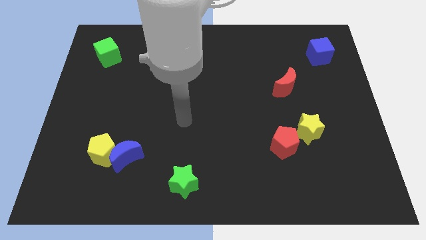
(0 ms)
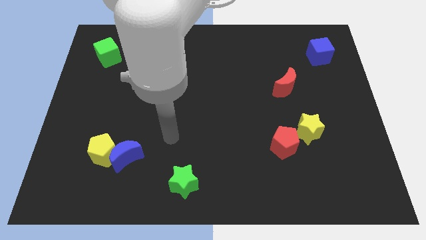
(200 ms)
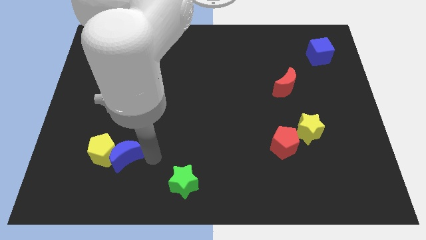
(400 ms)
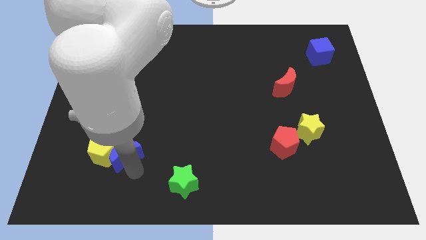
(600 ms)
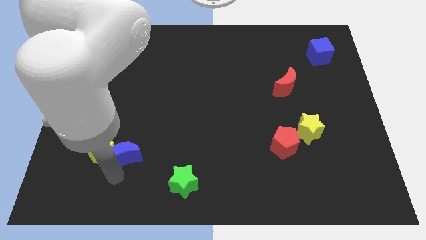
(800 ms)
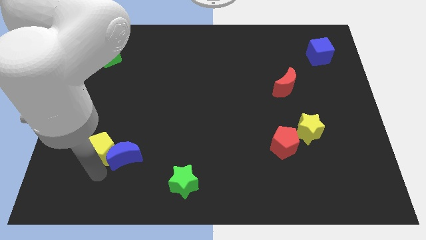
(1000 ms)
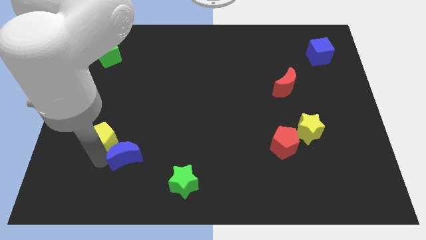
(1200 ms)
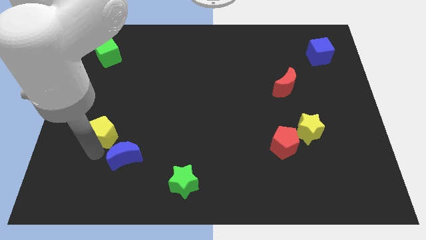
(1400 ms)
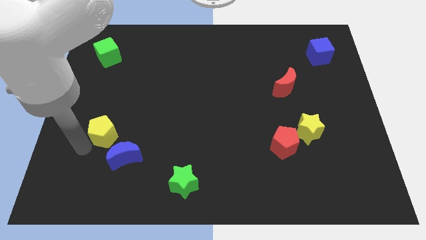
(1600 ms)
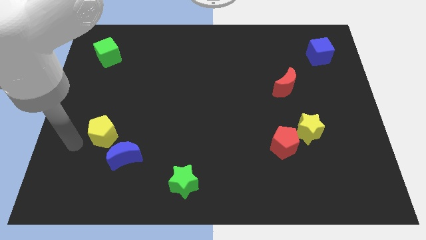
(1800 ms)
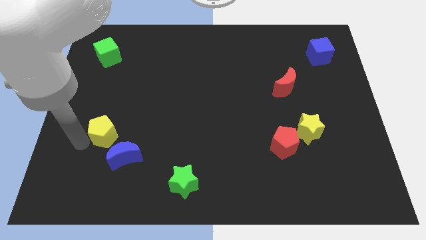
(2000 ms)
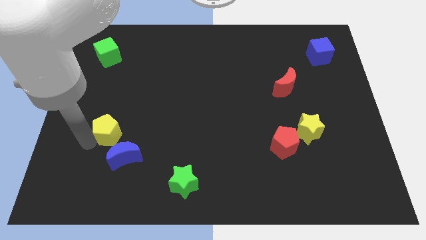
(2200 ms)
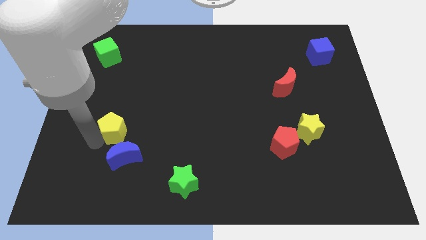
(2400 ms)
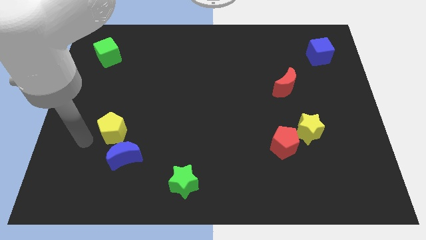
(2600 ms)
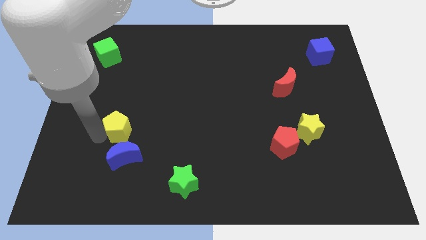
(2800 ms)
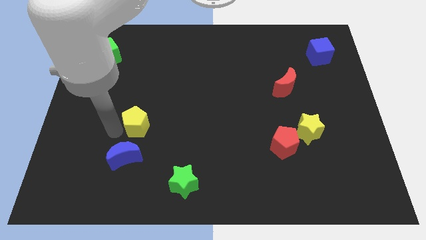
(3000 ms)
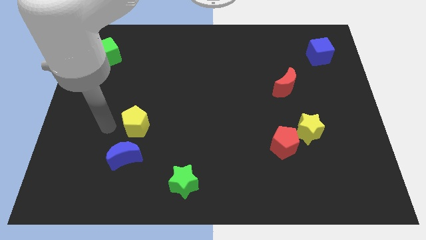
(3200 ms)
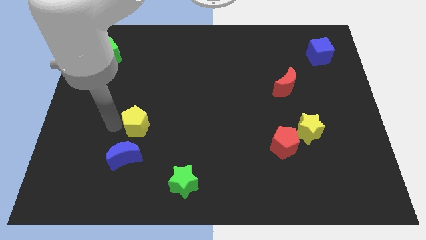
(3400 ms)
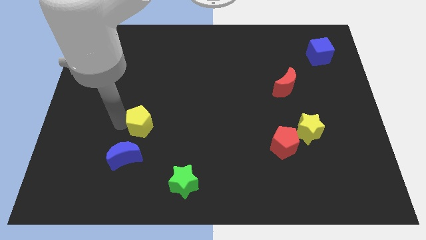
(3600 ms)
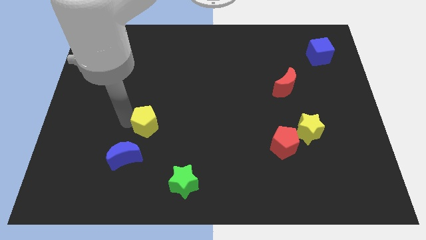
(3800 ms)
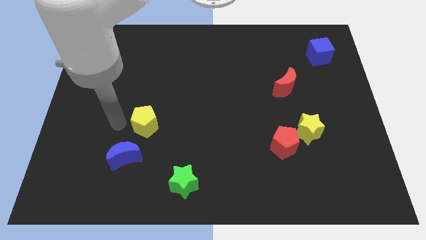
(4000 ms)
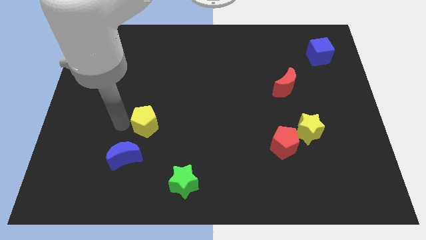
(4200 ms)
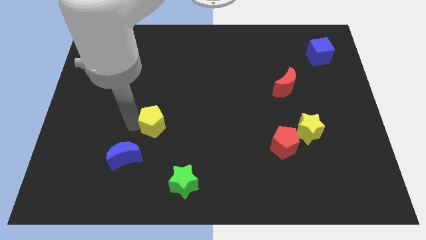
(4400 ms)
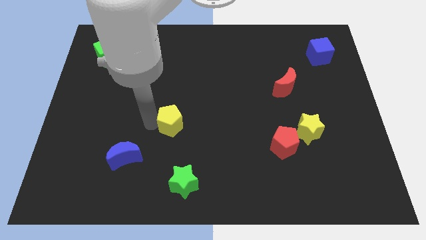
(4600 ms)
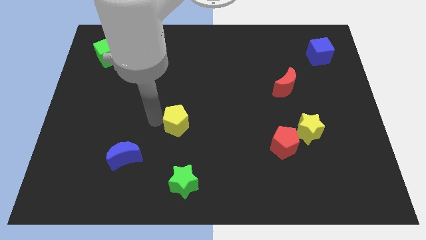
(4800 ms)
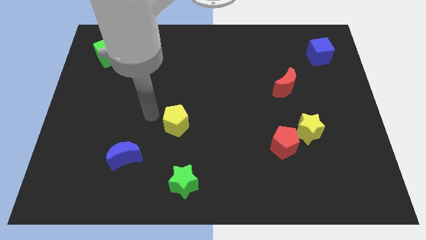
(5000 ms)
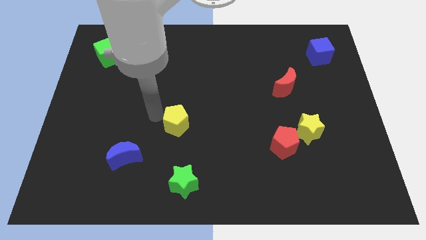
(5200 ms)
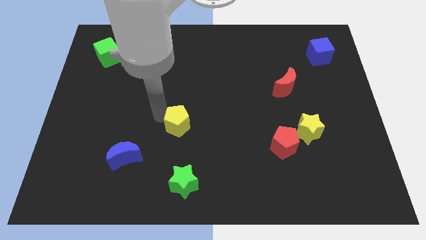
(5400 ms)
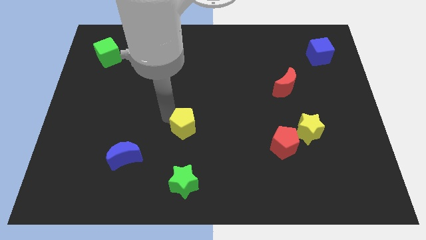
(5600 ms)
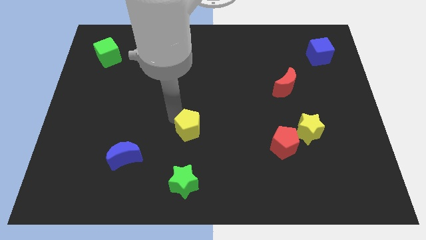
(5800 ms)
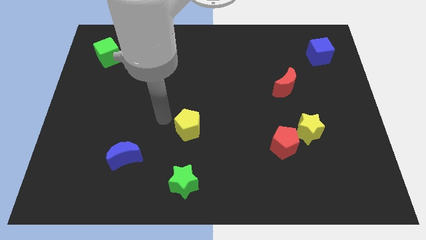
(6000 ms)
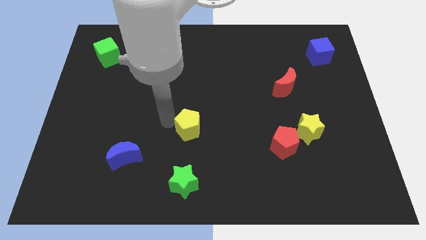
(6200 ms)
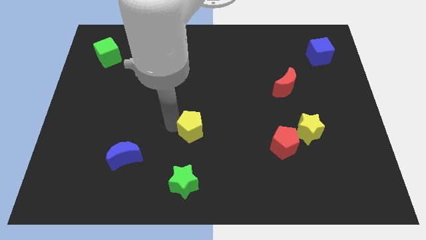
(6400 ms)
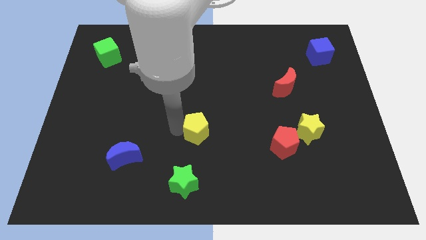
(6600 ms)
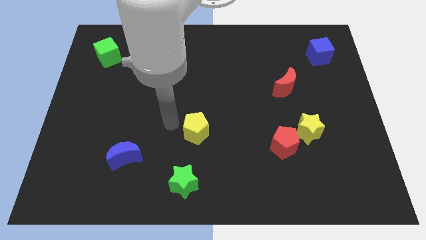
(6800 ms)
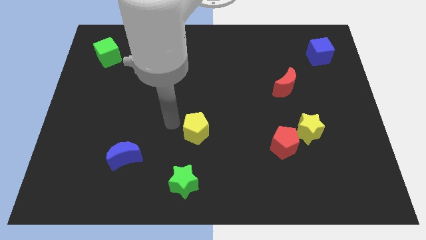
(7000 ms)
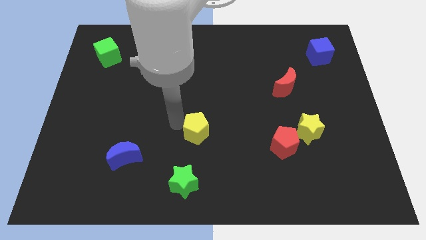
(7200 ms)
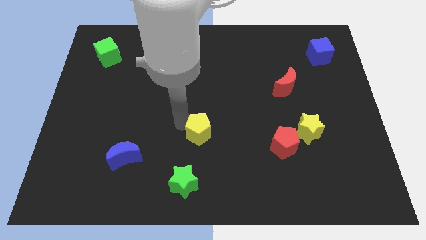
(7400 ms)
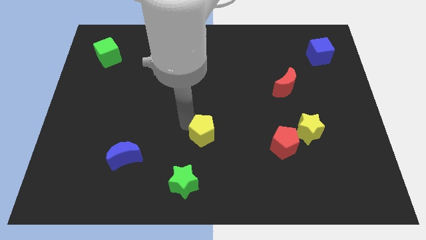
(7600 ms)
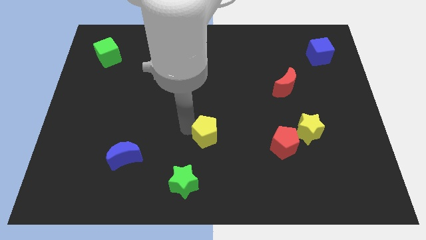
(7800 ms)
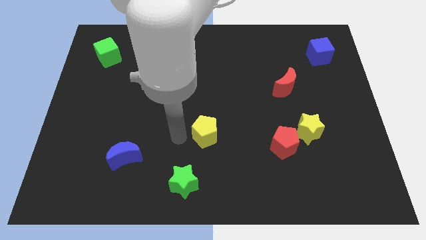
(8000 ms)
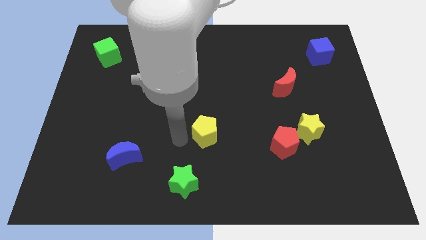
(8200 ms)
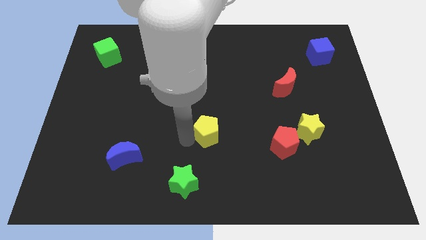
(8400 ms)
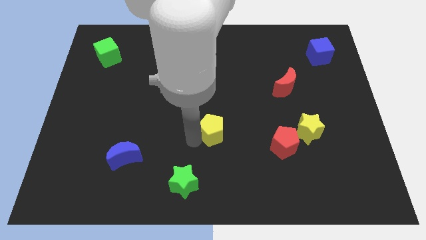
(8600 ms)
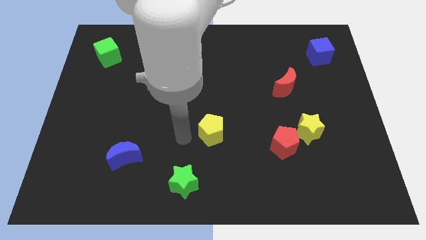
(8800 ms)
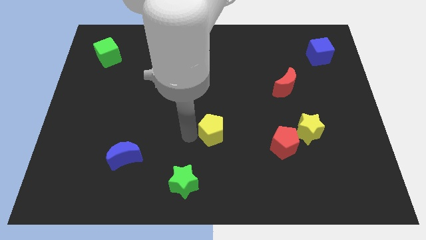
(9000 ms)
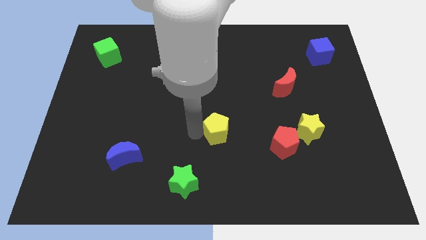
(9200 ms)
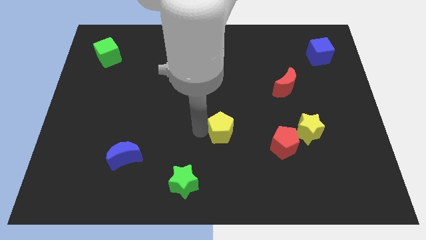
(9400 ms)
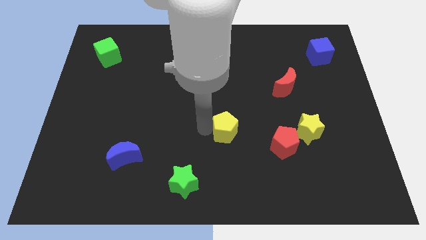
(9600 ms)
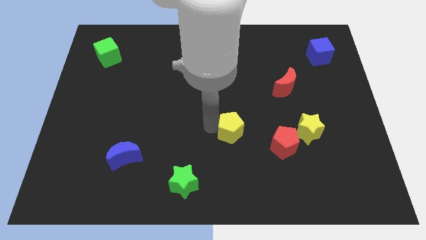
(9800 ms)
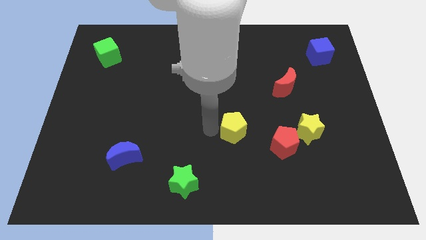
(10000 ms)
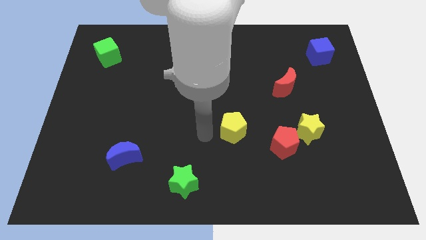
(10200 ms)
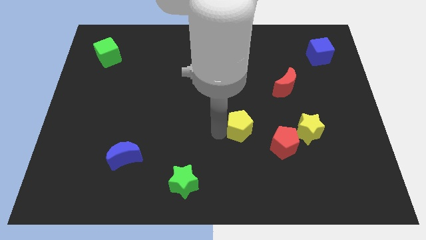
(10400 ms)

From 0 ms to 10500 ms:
slide the yellow pentagon diagonally up and to the left of the red pentagon

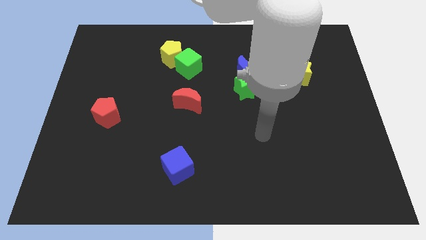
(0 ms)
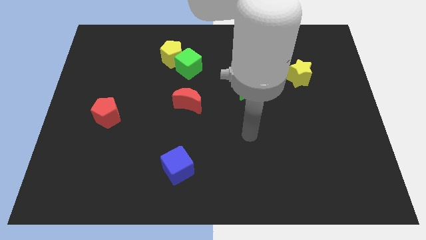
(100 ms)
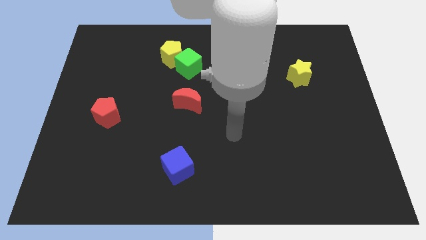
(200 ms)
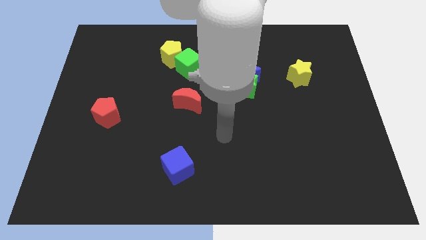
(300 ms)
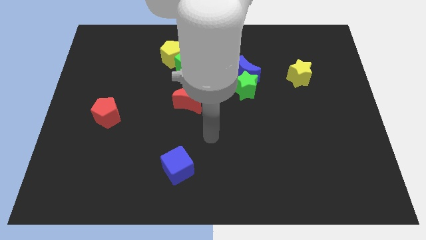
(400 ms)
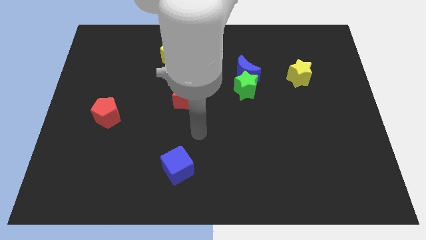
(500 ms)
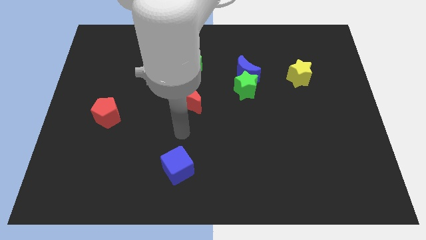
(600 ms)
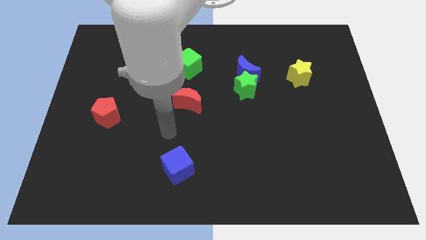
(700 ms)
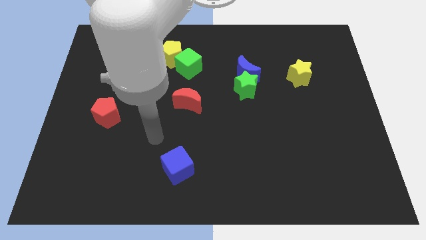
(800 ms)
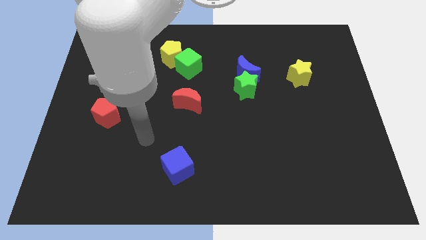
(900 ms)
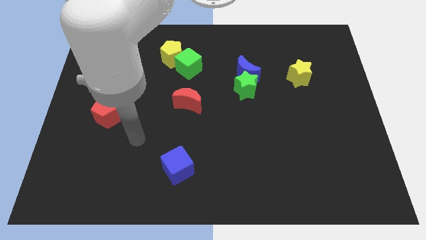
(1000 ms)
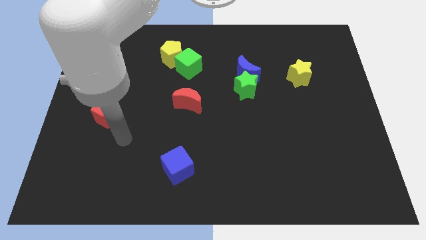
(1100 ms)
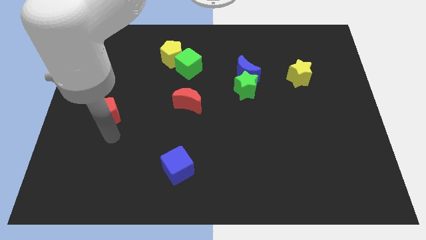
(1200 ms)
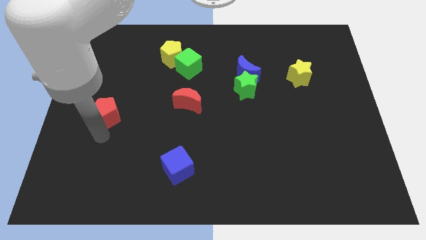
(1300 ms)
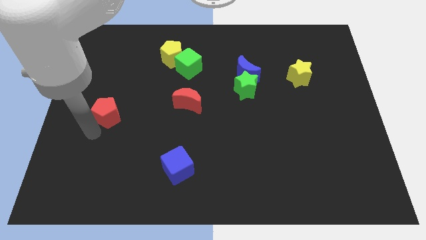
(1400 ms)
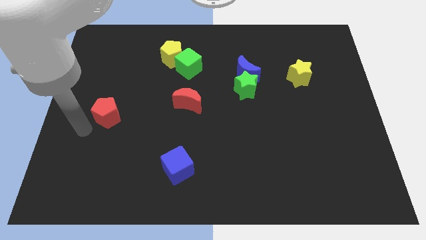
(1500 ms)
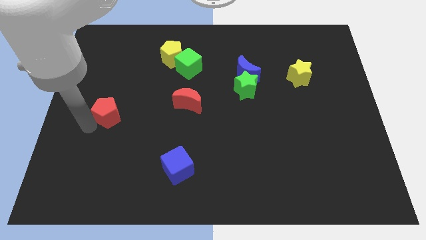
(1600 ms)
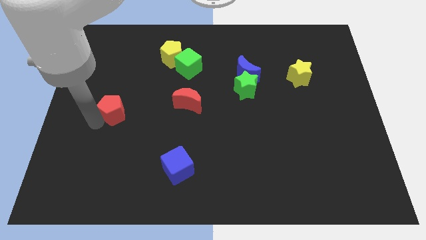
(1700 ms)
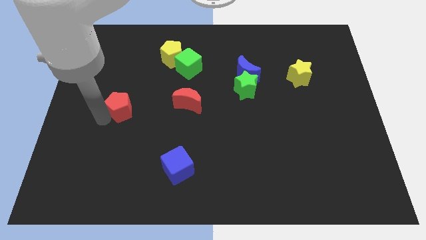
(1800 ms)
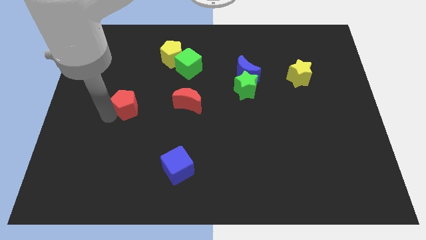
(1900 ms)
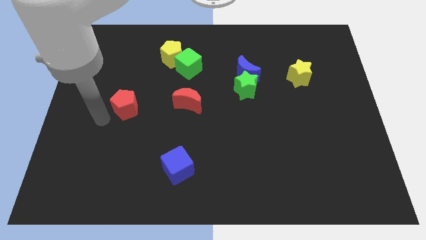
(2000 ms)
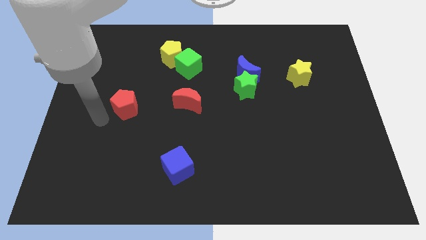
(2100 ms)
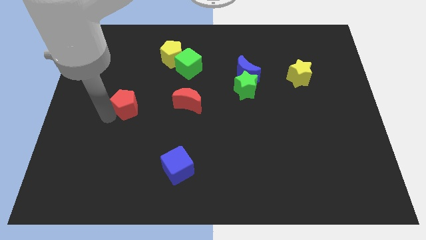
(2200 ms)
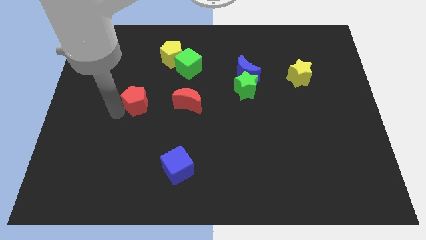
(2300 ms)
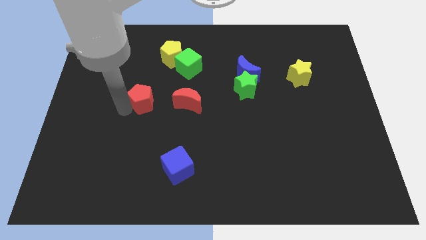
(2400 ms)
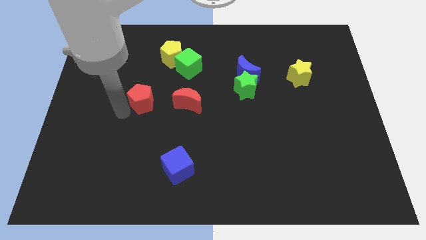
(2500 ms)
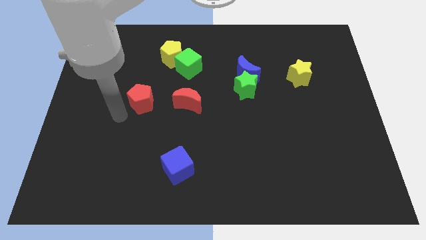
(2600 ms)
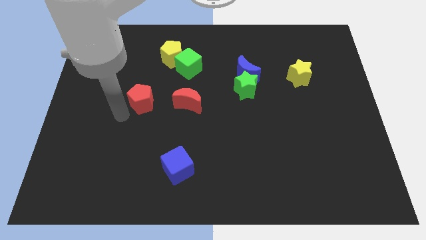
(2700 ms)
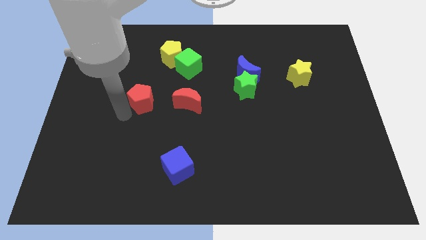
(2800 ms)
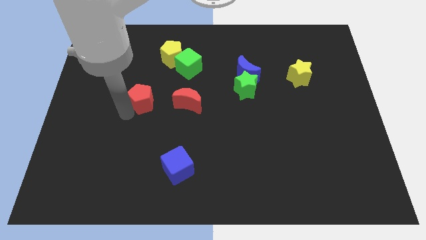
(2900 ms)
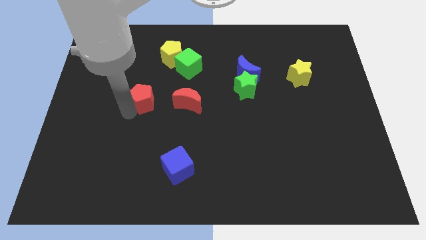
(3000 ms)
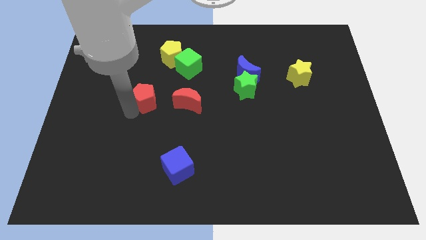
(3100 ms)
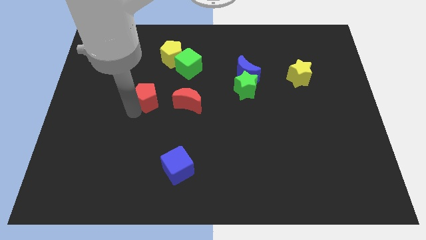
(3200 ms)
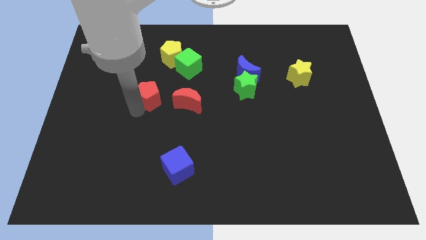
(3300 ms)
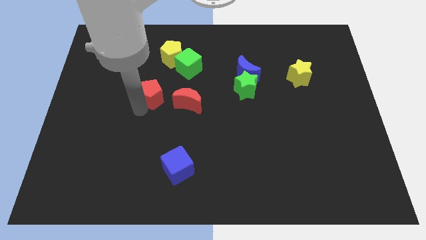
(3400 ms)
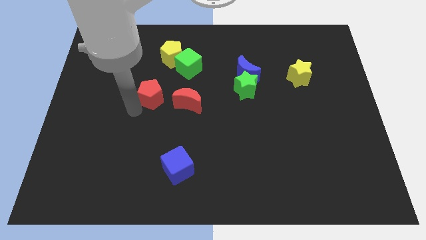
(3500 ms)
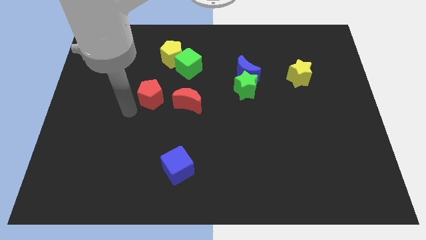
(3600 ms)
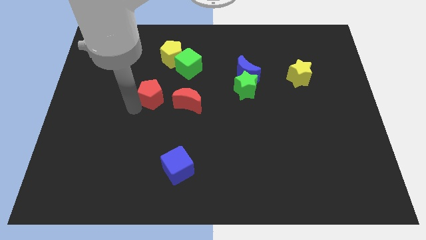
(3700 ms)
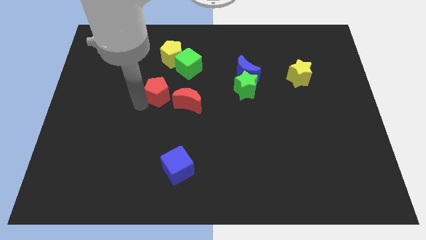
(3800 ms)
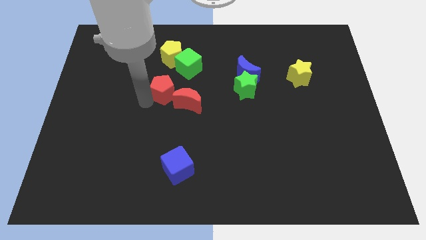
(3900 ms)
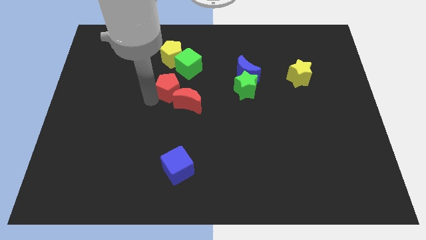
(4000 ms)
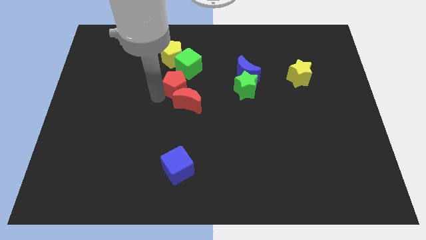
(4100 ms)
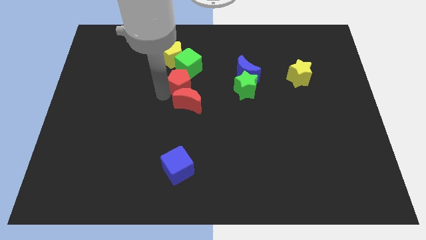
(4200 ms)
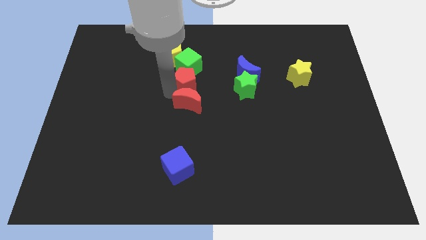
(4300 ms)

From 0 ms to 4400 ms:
move the red pentagon diagonally down and to the right of the yellow pentagon
